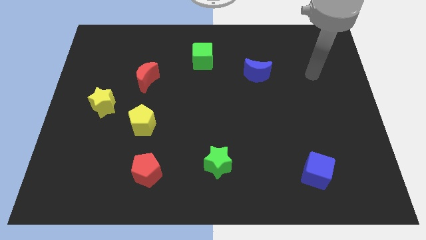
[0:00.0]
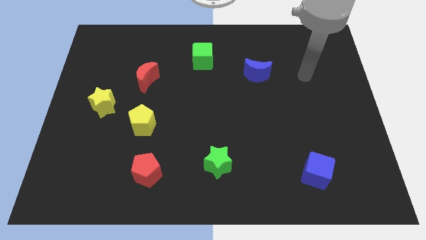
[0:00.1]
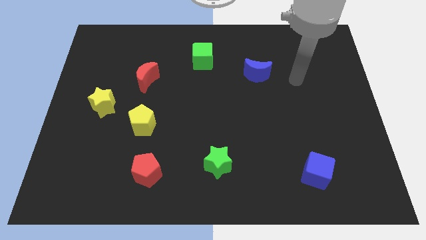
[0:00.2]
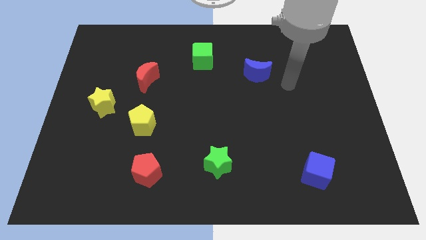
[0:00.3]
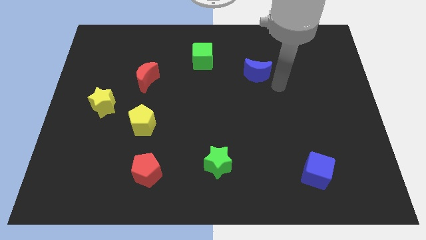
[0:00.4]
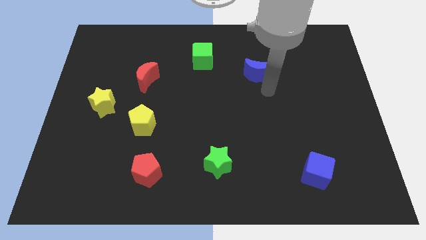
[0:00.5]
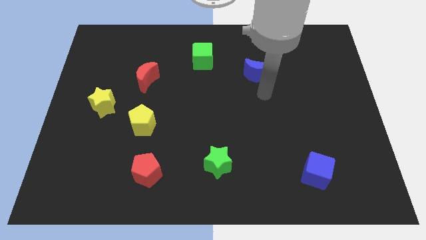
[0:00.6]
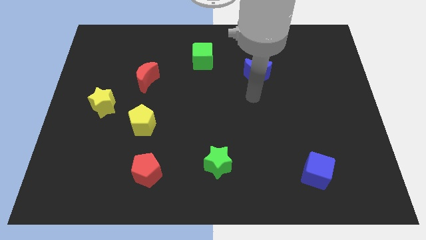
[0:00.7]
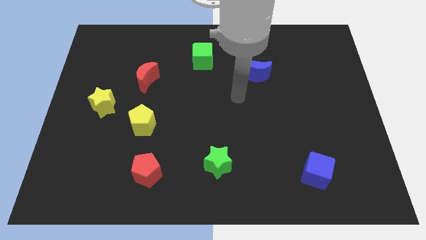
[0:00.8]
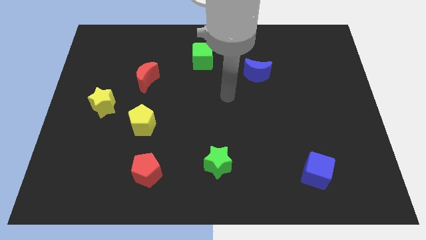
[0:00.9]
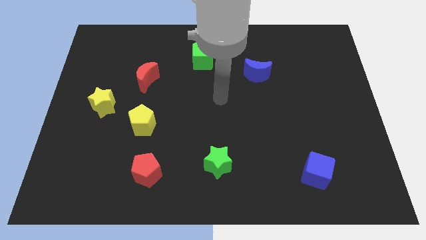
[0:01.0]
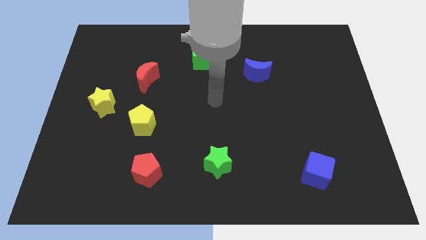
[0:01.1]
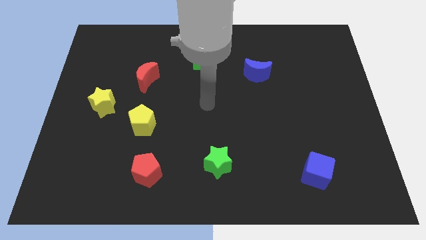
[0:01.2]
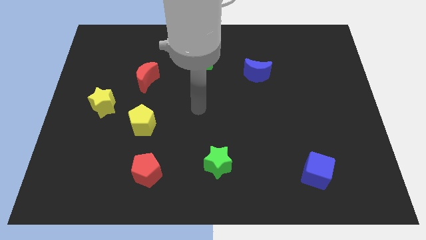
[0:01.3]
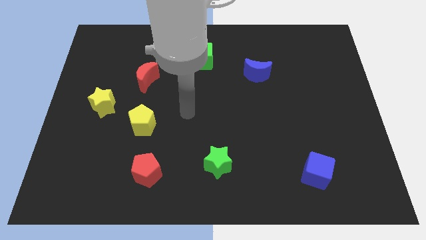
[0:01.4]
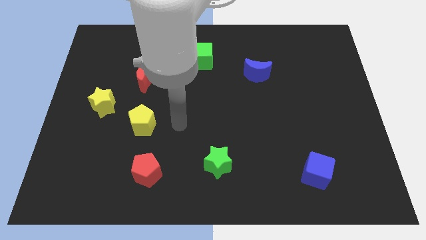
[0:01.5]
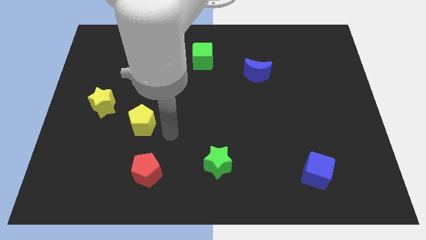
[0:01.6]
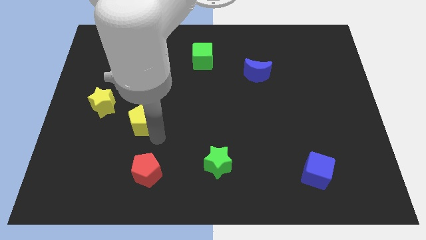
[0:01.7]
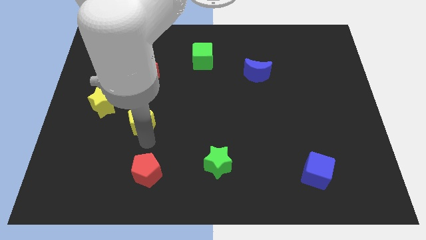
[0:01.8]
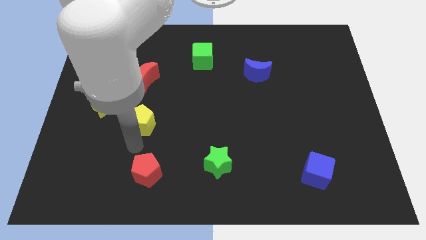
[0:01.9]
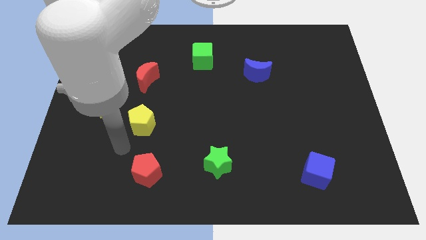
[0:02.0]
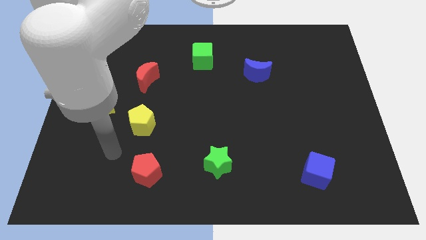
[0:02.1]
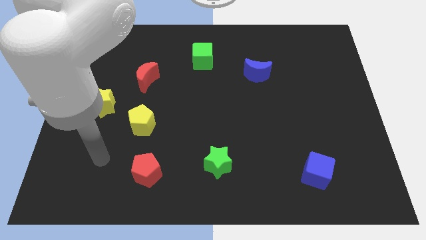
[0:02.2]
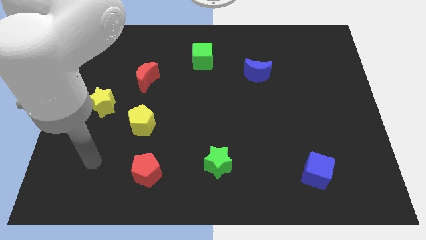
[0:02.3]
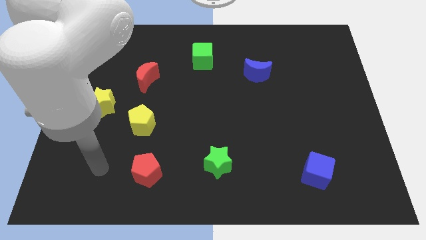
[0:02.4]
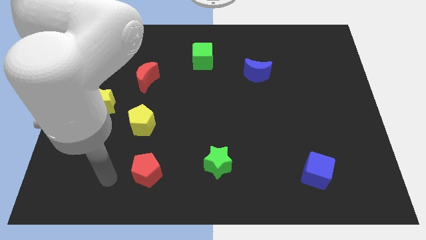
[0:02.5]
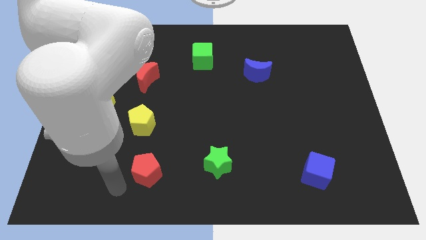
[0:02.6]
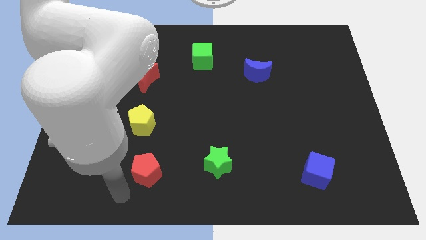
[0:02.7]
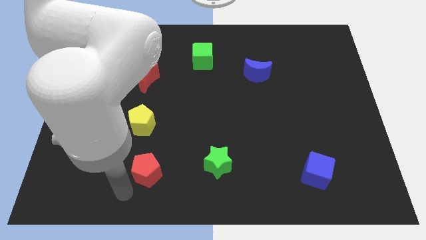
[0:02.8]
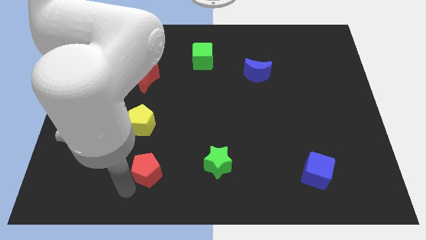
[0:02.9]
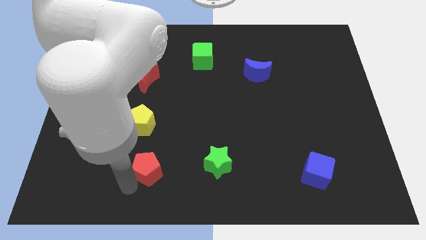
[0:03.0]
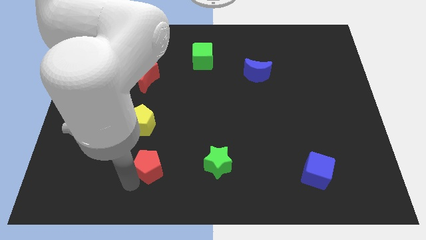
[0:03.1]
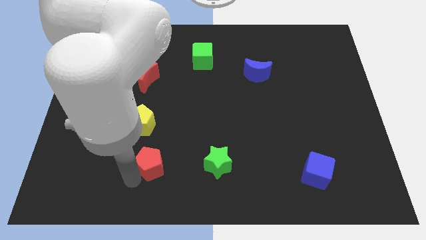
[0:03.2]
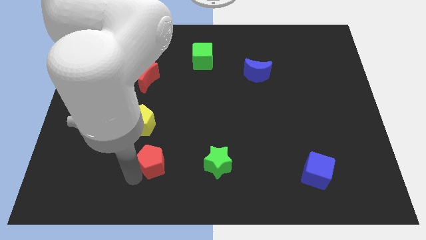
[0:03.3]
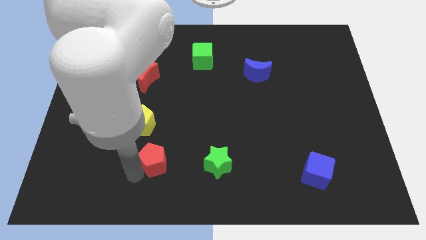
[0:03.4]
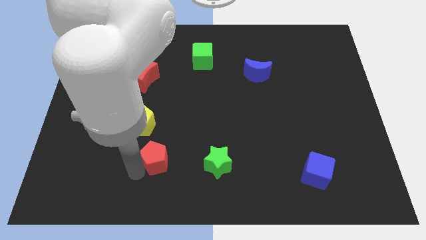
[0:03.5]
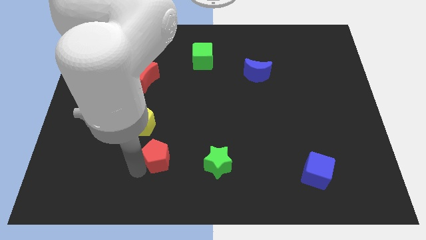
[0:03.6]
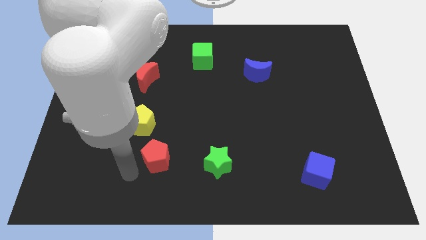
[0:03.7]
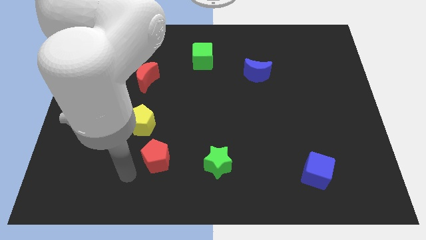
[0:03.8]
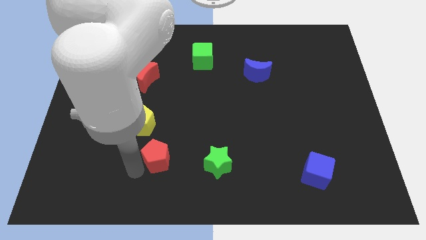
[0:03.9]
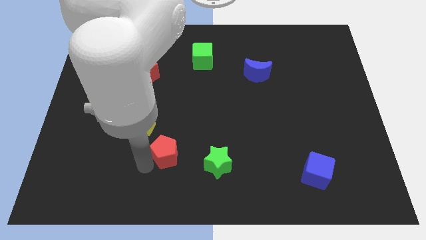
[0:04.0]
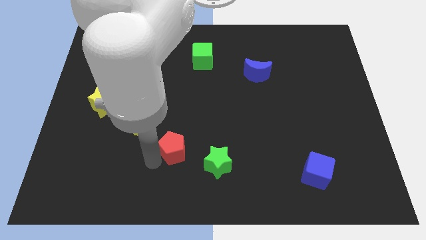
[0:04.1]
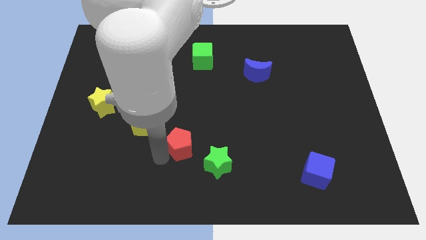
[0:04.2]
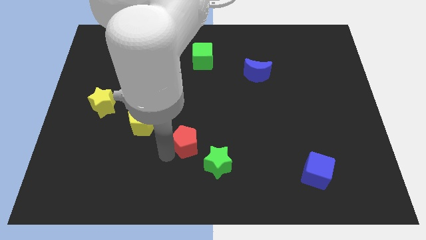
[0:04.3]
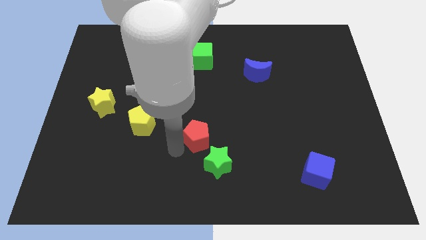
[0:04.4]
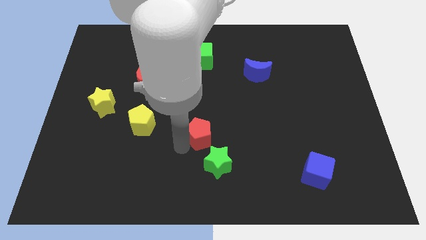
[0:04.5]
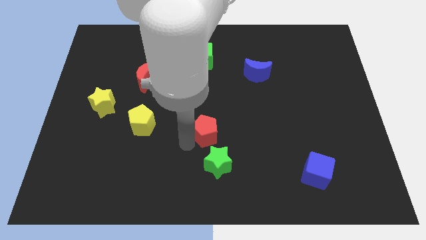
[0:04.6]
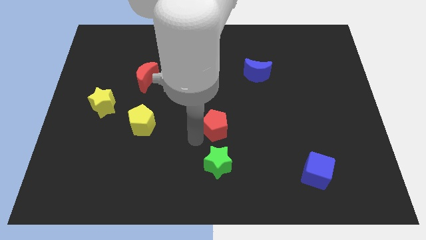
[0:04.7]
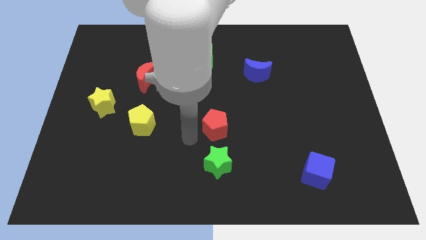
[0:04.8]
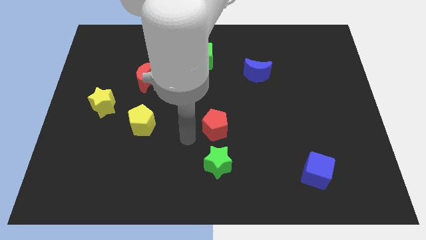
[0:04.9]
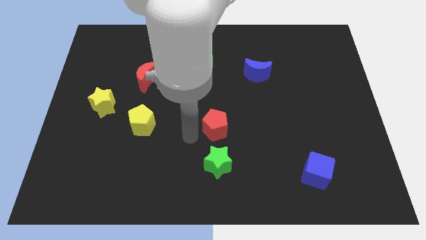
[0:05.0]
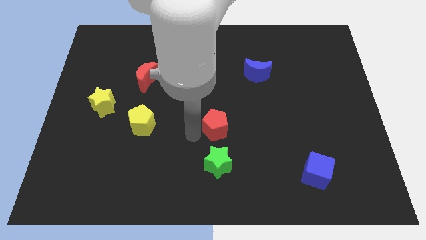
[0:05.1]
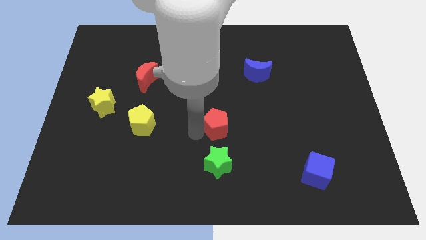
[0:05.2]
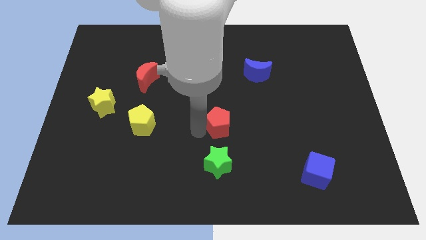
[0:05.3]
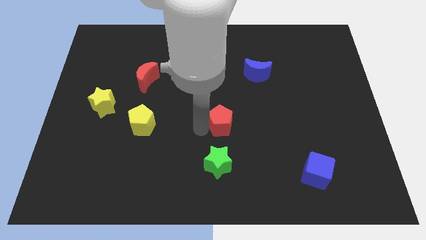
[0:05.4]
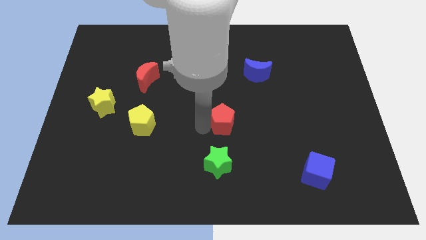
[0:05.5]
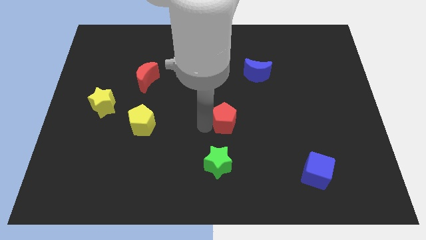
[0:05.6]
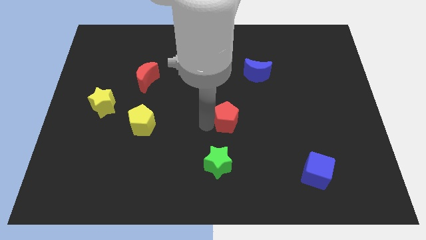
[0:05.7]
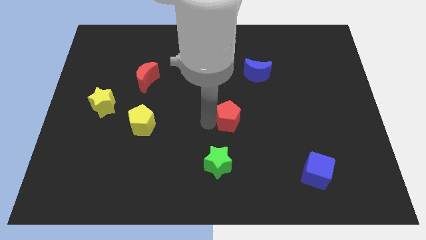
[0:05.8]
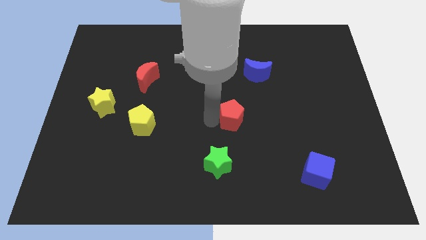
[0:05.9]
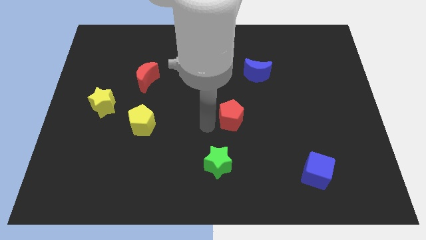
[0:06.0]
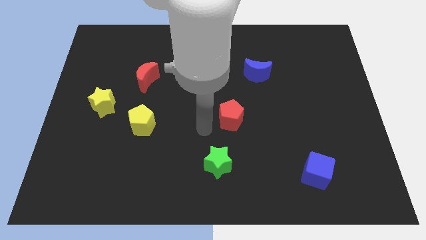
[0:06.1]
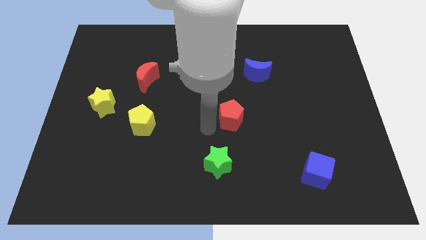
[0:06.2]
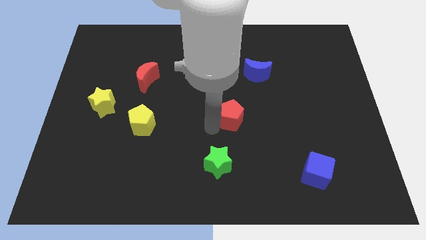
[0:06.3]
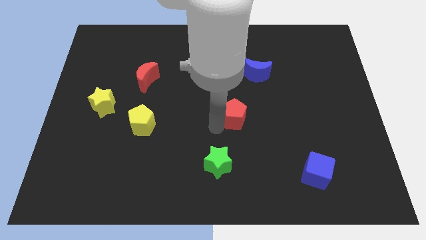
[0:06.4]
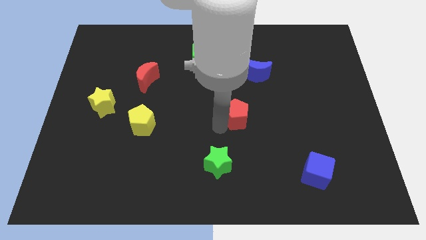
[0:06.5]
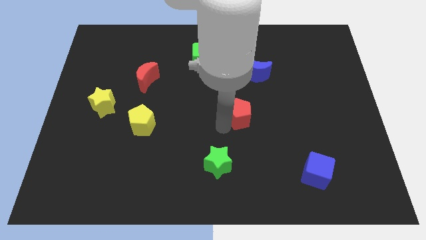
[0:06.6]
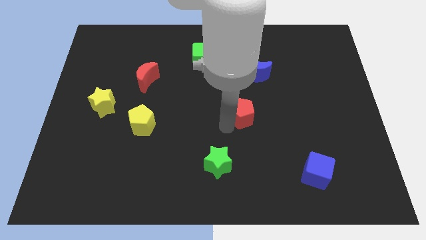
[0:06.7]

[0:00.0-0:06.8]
slide the red pentagon to the bottom of the blue moon
